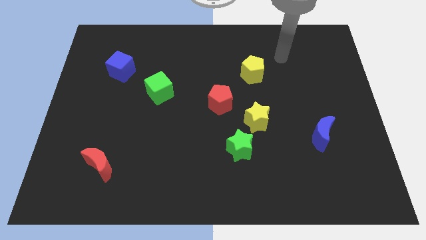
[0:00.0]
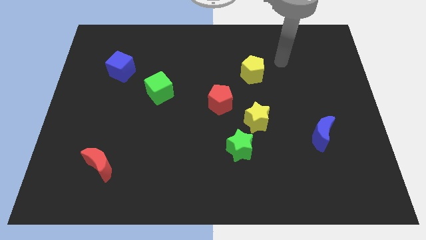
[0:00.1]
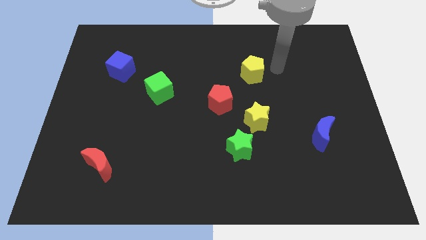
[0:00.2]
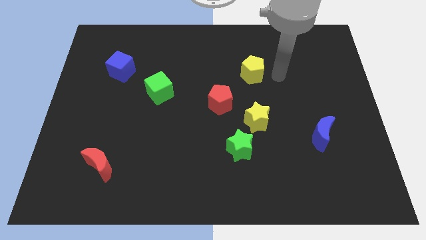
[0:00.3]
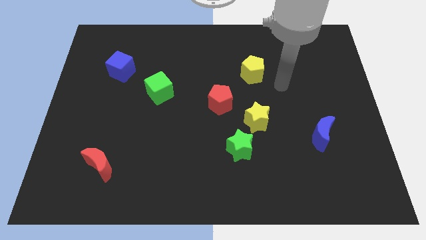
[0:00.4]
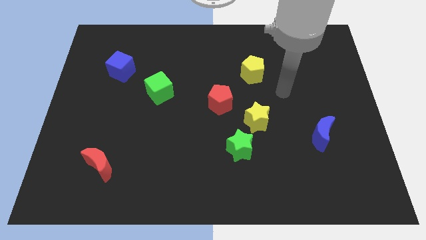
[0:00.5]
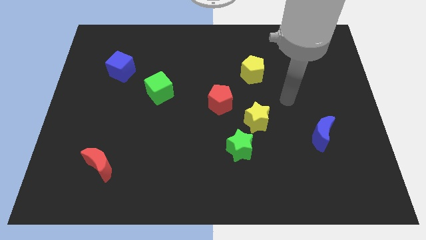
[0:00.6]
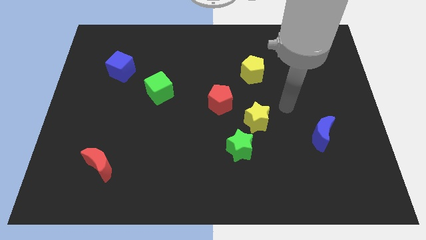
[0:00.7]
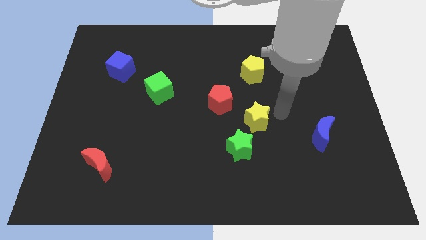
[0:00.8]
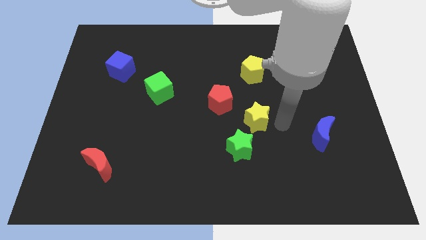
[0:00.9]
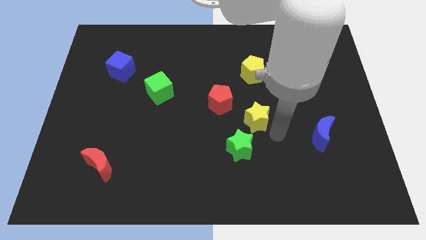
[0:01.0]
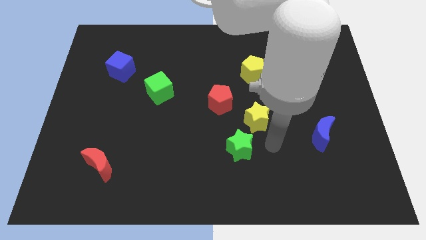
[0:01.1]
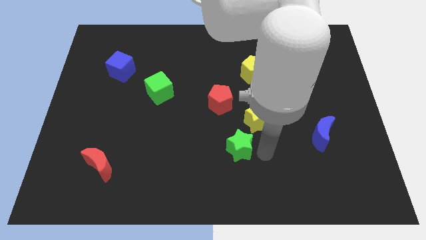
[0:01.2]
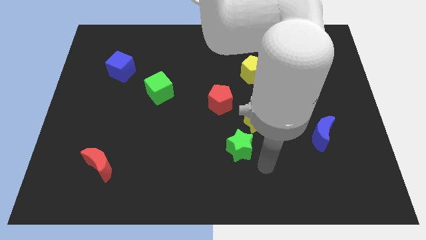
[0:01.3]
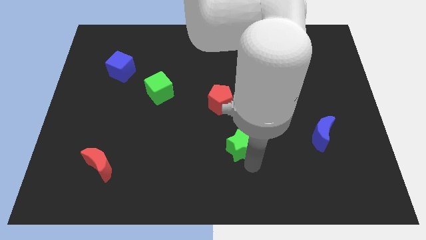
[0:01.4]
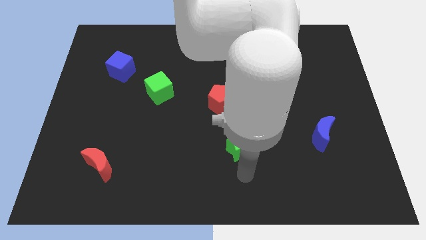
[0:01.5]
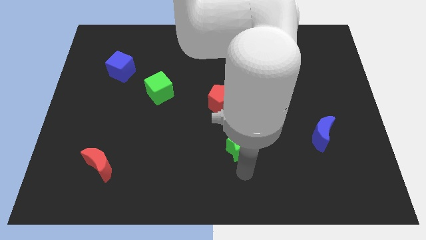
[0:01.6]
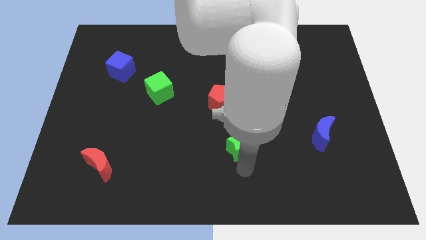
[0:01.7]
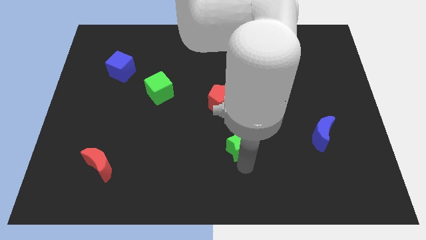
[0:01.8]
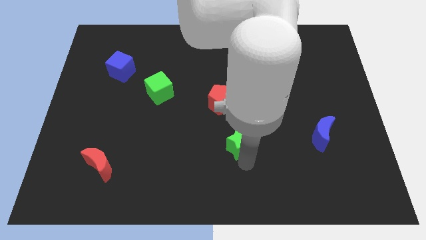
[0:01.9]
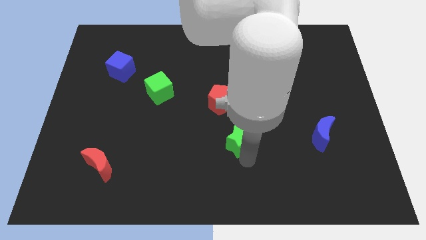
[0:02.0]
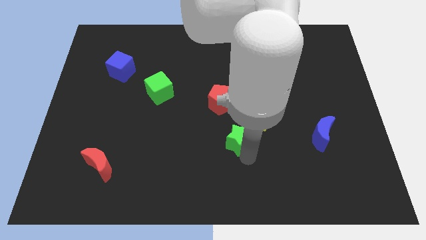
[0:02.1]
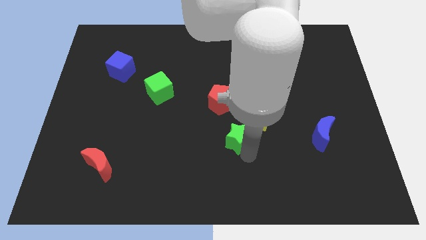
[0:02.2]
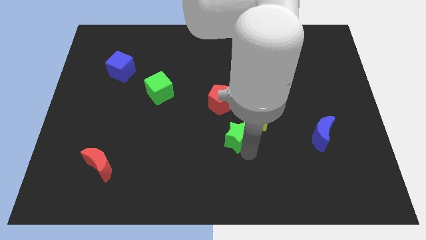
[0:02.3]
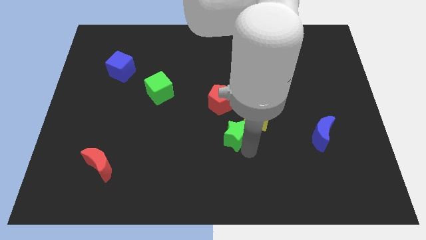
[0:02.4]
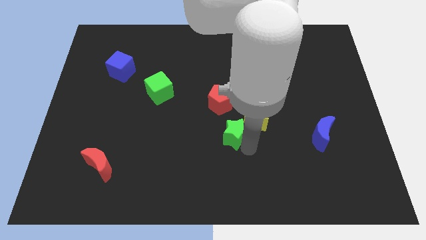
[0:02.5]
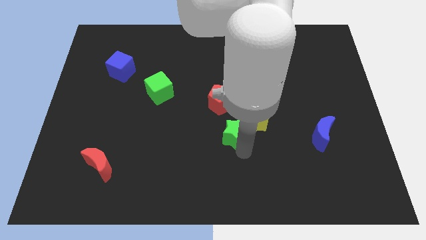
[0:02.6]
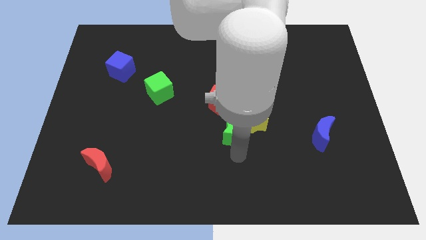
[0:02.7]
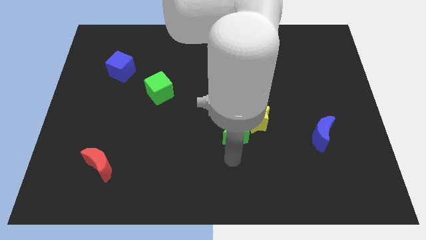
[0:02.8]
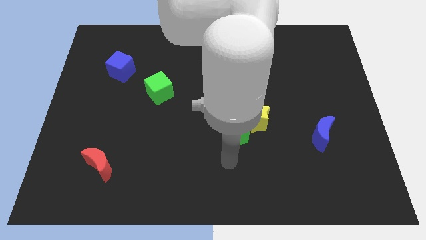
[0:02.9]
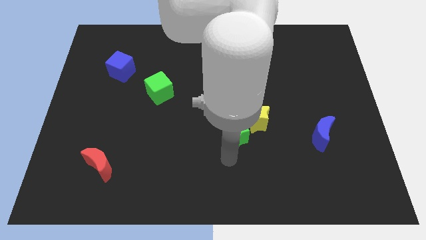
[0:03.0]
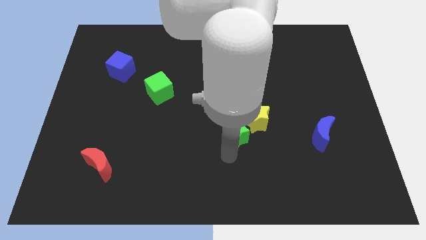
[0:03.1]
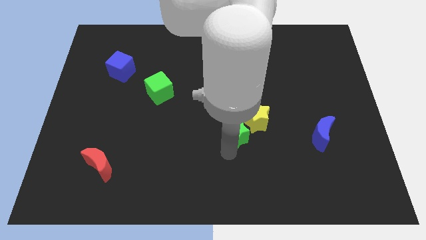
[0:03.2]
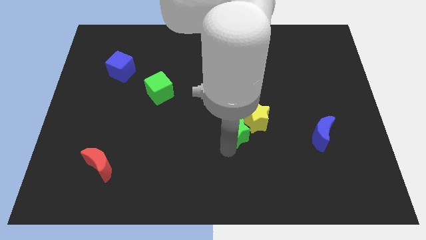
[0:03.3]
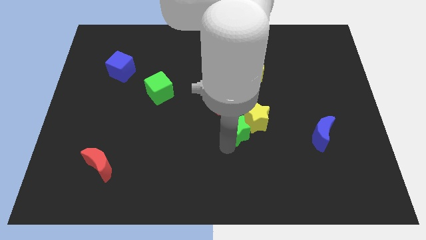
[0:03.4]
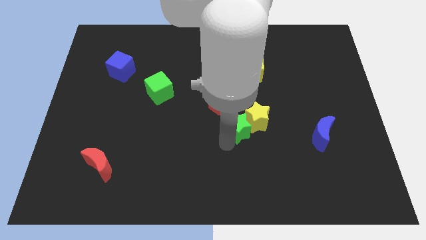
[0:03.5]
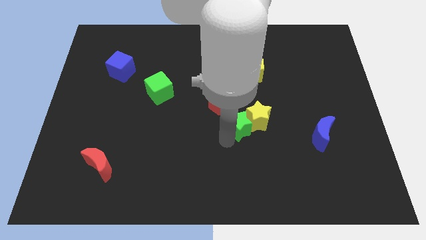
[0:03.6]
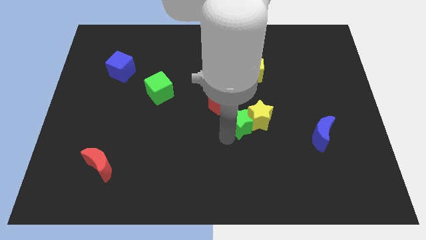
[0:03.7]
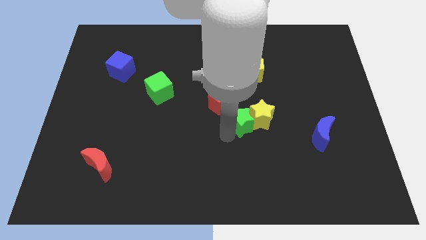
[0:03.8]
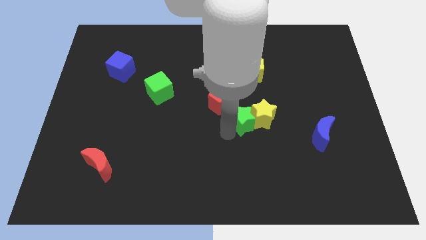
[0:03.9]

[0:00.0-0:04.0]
push the green star a little bit up

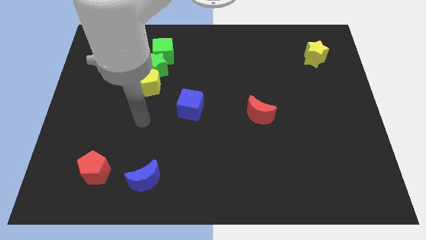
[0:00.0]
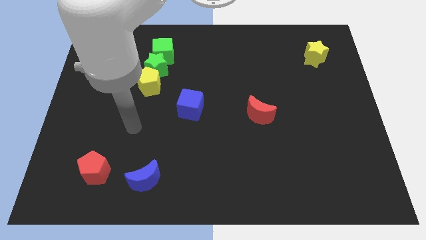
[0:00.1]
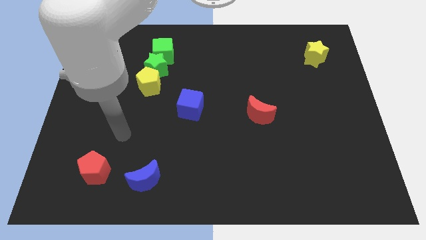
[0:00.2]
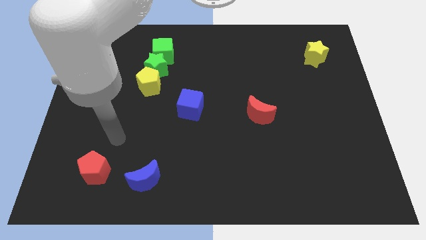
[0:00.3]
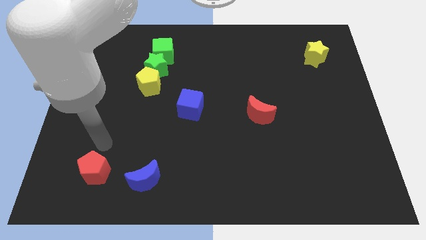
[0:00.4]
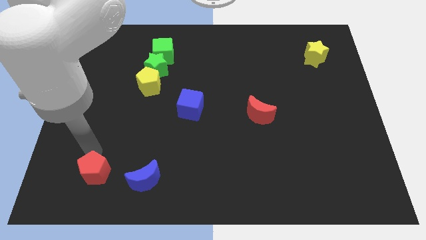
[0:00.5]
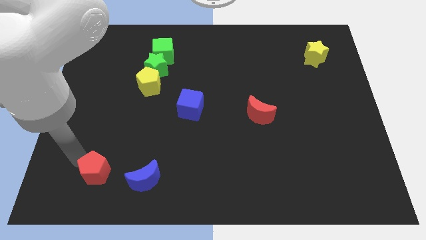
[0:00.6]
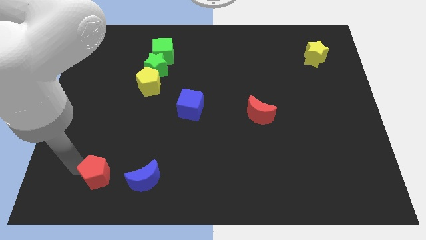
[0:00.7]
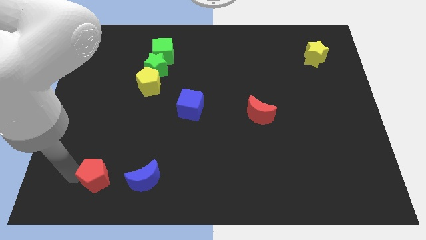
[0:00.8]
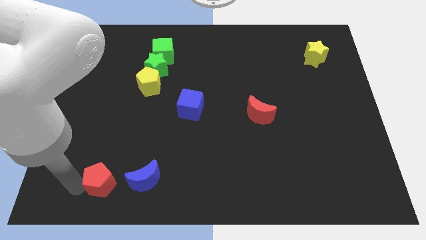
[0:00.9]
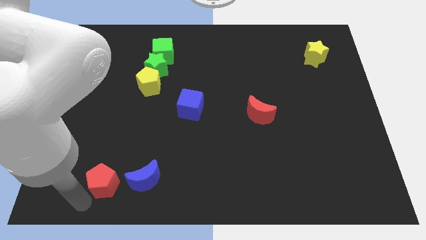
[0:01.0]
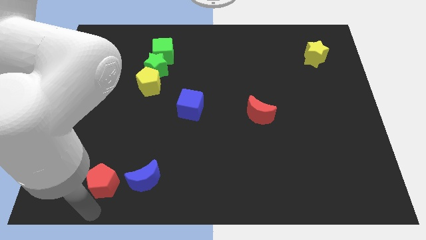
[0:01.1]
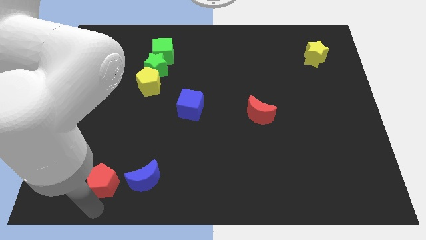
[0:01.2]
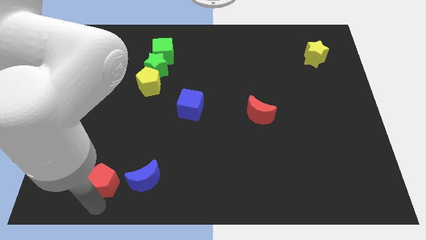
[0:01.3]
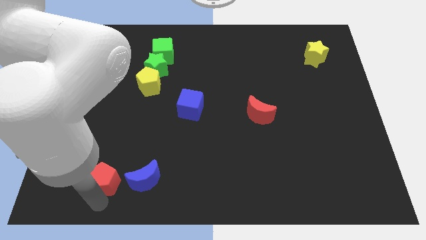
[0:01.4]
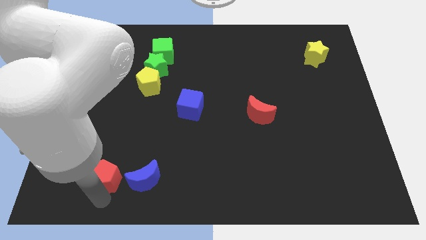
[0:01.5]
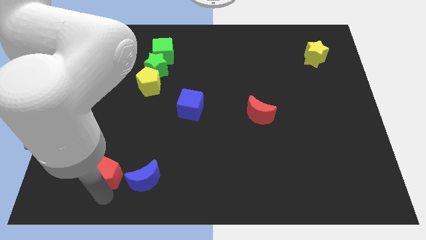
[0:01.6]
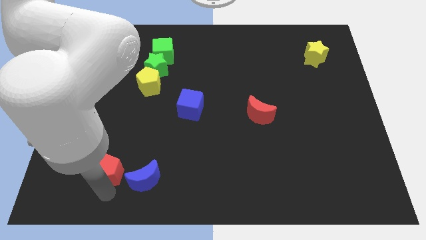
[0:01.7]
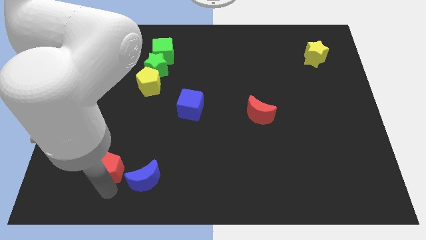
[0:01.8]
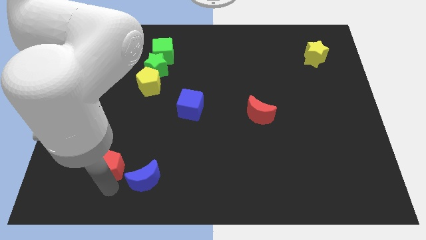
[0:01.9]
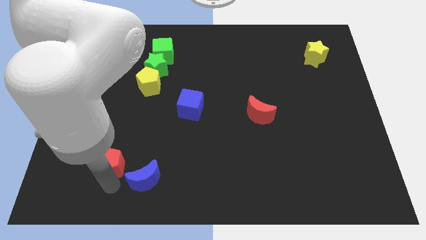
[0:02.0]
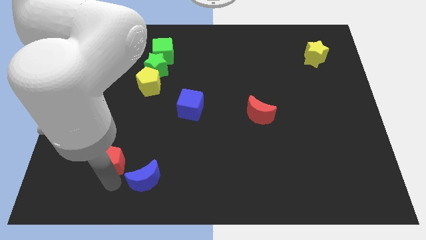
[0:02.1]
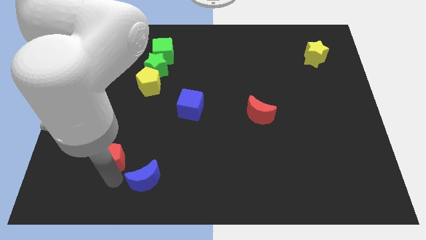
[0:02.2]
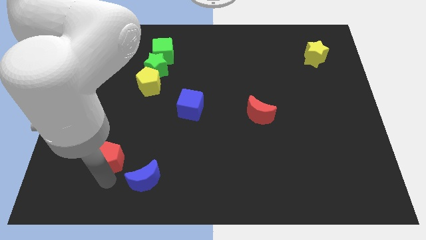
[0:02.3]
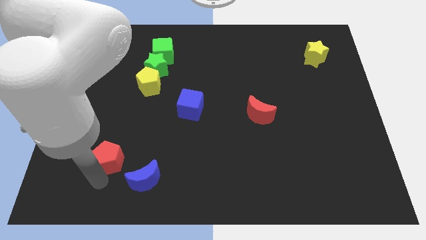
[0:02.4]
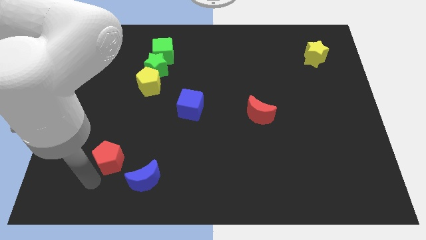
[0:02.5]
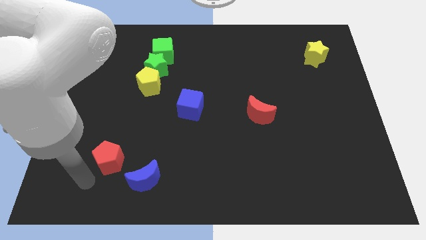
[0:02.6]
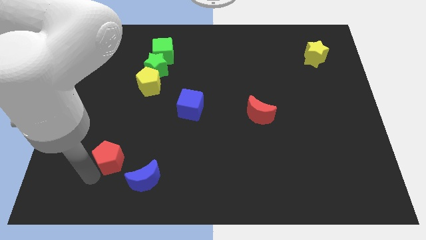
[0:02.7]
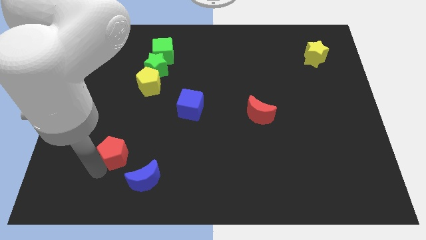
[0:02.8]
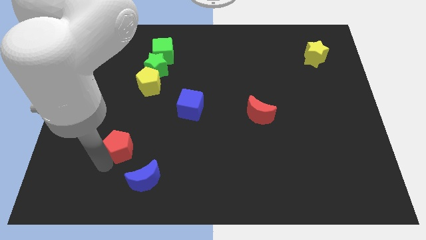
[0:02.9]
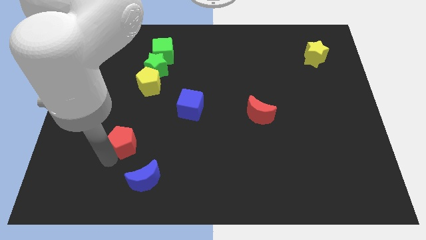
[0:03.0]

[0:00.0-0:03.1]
slide the red pentagon diagonally upwards and to the right a little bit

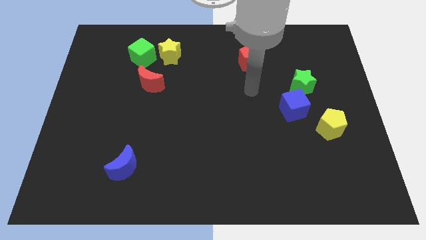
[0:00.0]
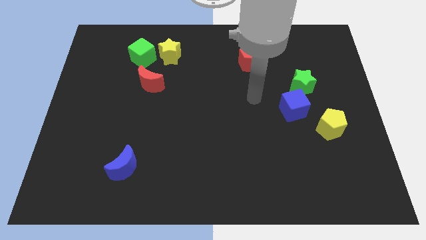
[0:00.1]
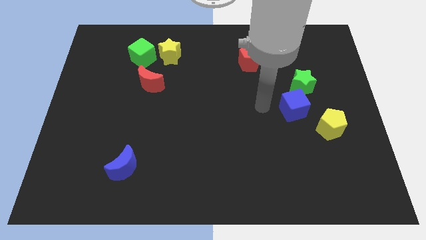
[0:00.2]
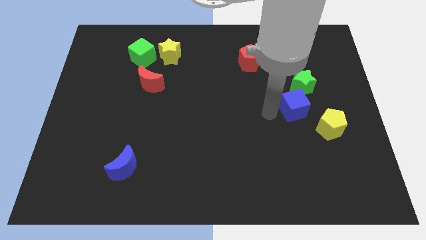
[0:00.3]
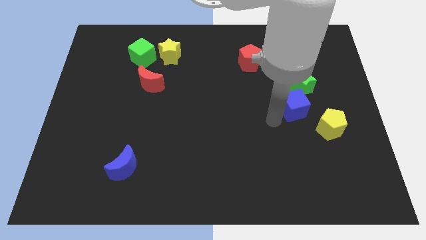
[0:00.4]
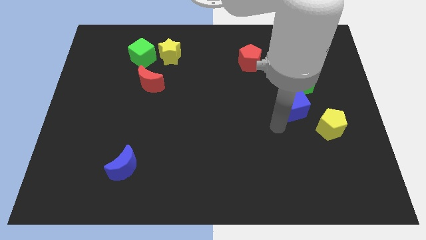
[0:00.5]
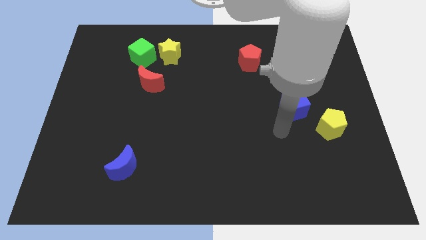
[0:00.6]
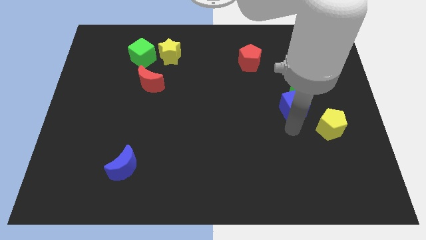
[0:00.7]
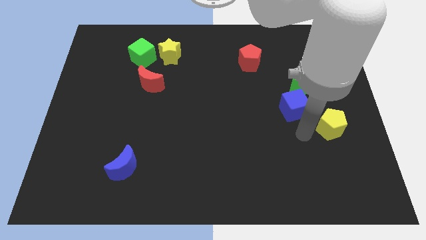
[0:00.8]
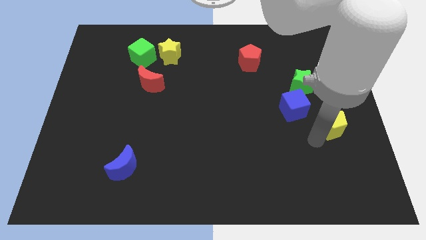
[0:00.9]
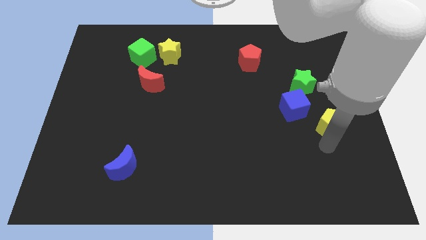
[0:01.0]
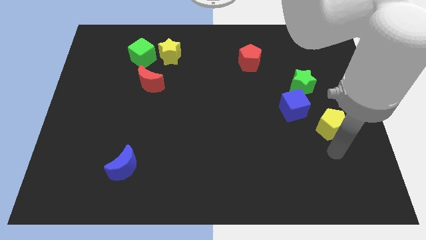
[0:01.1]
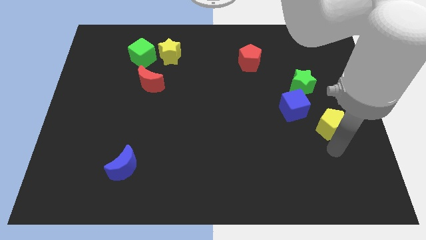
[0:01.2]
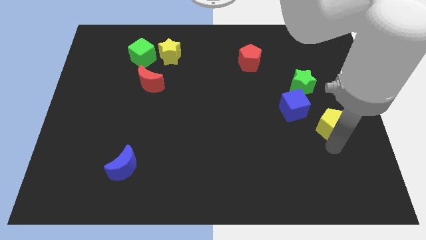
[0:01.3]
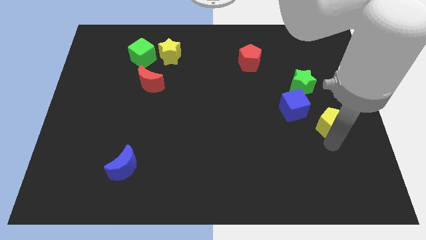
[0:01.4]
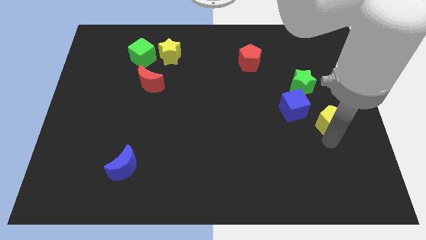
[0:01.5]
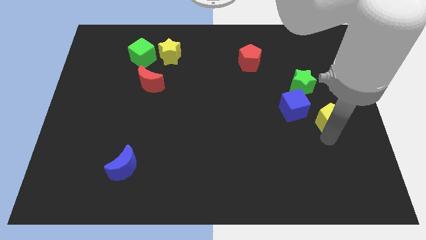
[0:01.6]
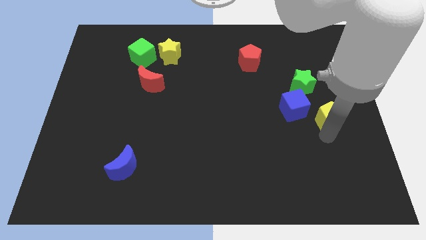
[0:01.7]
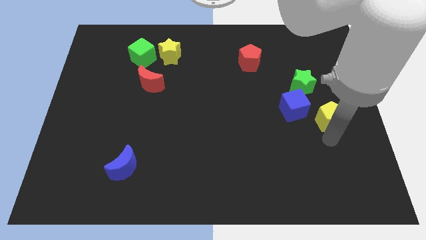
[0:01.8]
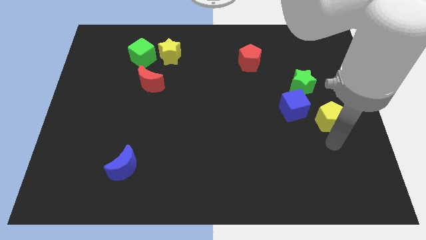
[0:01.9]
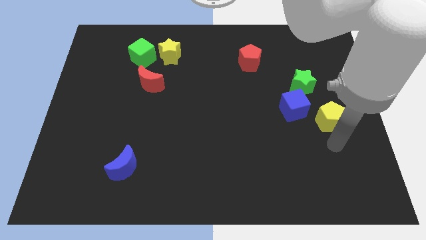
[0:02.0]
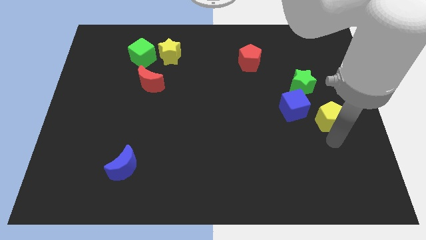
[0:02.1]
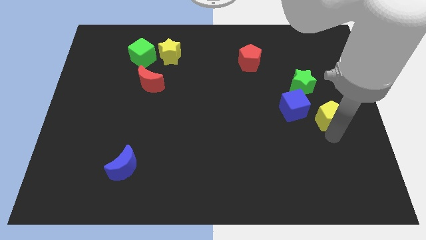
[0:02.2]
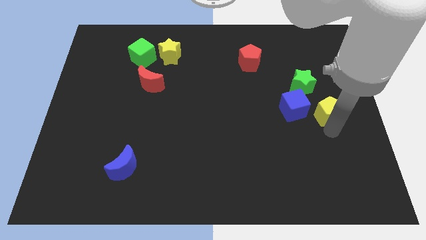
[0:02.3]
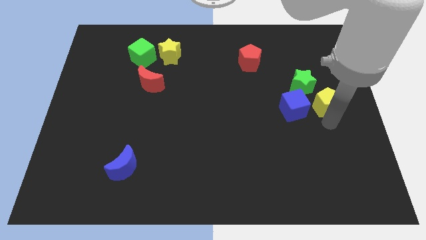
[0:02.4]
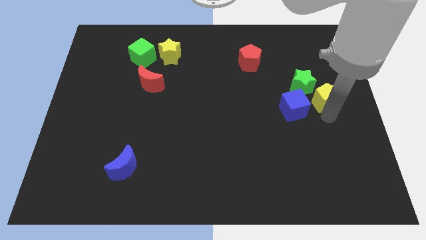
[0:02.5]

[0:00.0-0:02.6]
slide the yellow pentagon somewhat up
